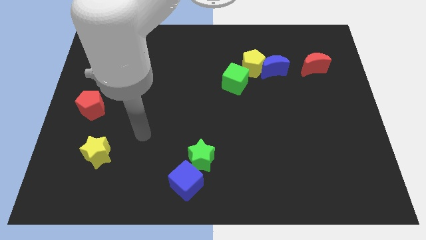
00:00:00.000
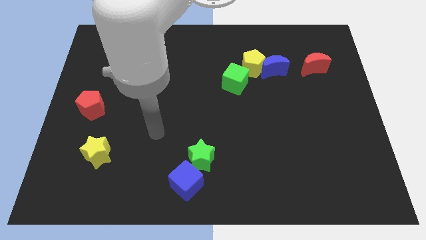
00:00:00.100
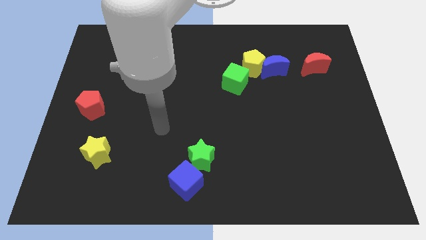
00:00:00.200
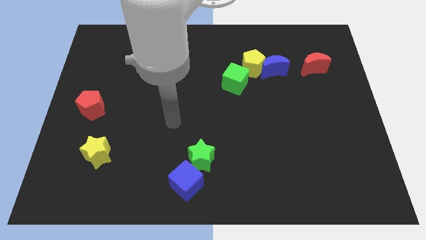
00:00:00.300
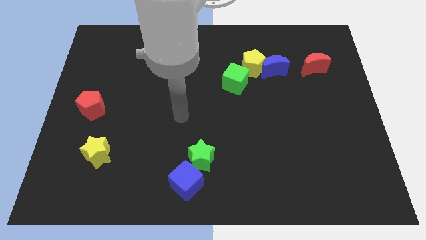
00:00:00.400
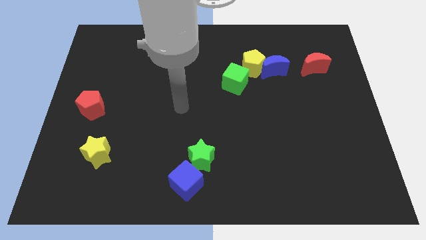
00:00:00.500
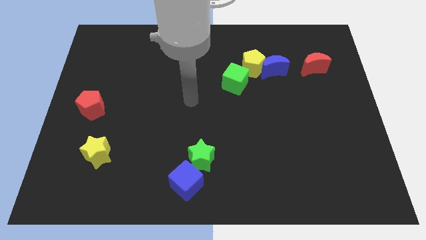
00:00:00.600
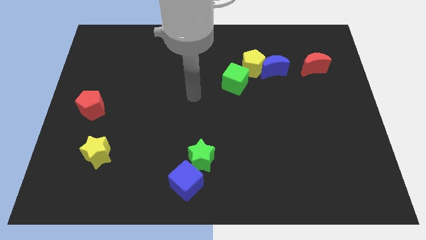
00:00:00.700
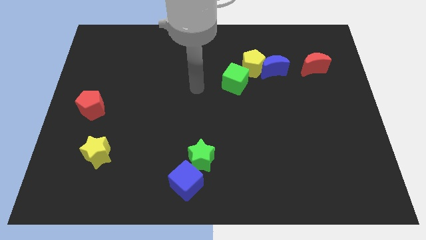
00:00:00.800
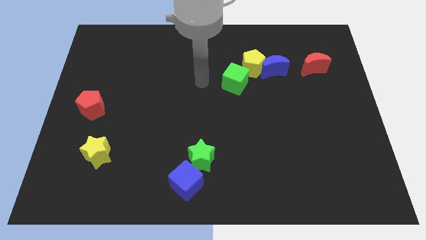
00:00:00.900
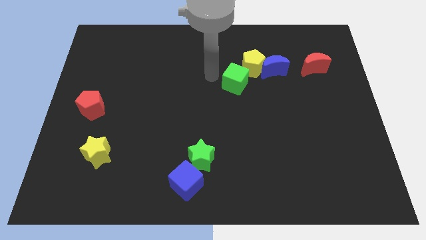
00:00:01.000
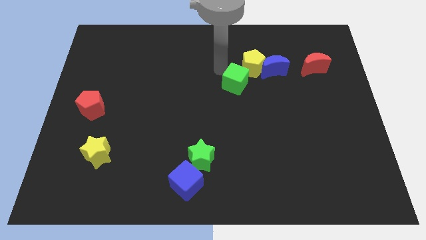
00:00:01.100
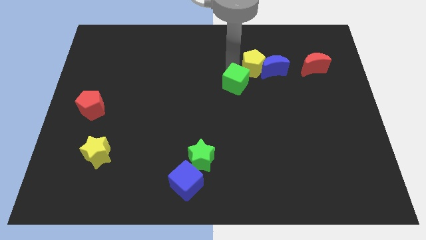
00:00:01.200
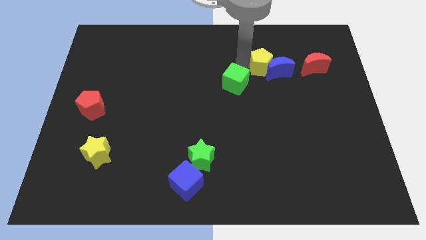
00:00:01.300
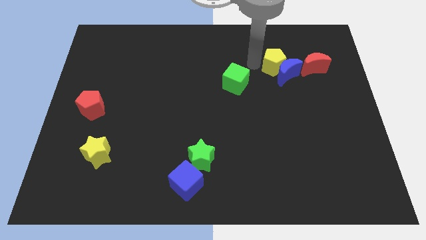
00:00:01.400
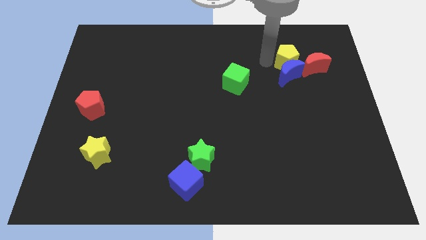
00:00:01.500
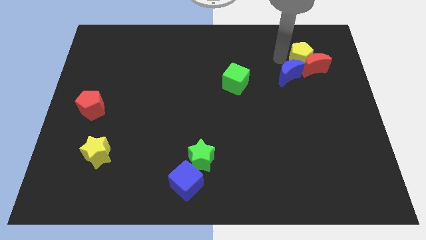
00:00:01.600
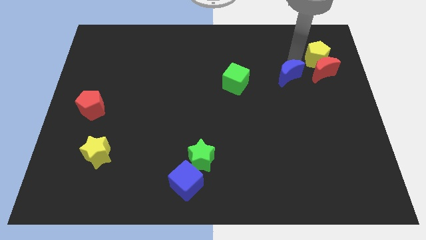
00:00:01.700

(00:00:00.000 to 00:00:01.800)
pull the blue moon apart from the yellow pentagon

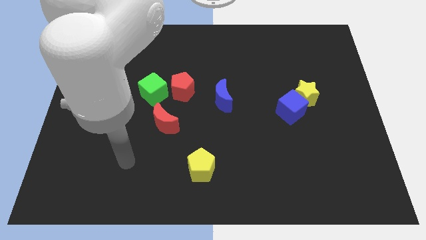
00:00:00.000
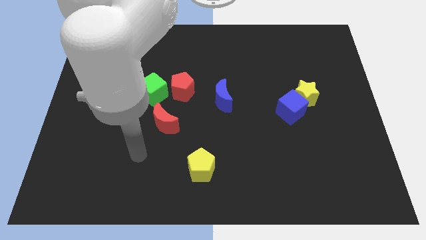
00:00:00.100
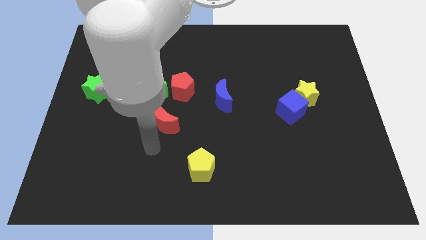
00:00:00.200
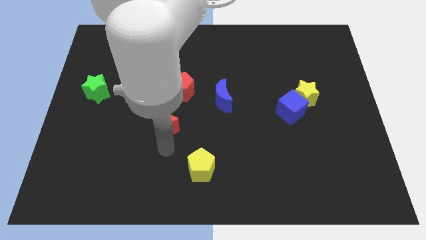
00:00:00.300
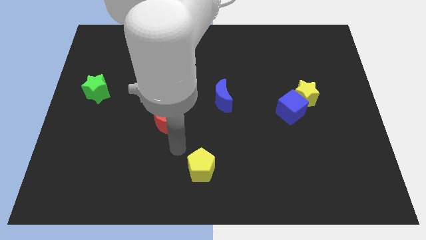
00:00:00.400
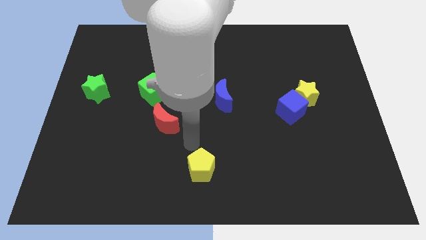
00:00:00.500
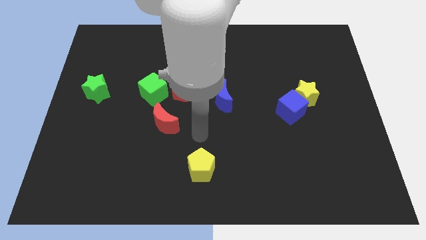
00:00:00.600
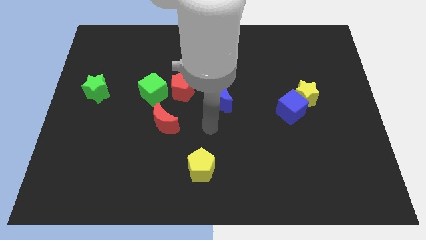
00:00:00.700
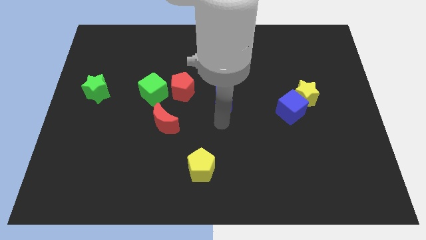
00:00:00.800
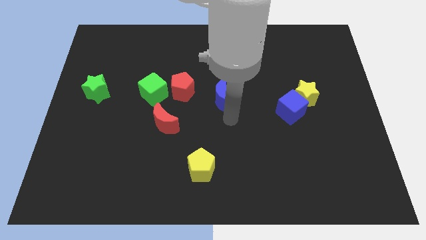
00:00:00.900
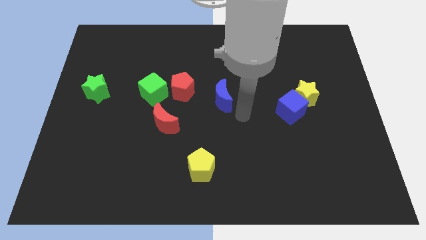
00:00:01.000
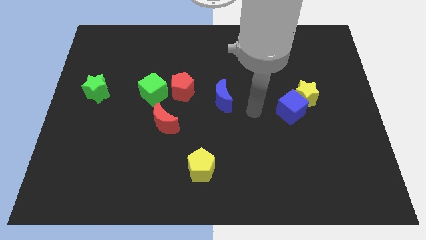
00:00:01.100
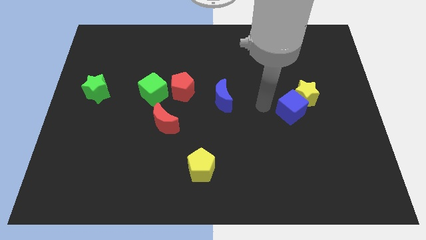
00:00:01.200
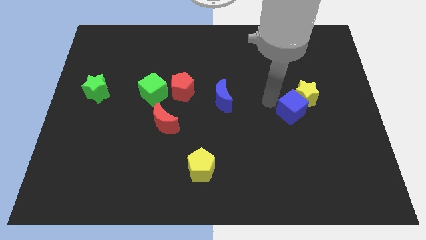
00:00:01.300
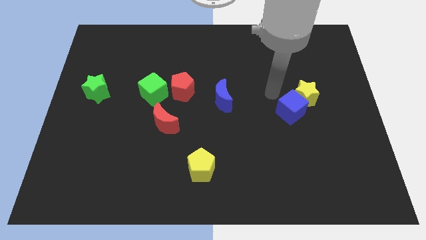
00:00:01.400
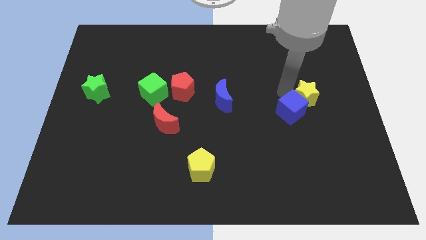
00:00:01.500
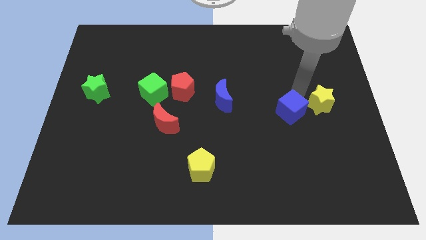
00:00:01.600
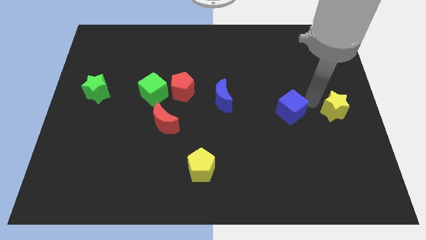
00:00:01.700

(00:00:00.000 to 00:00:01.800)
move the blue cube away from the yellow star

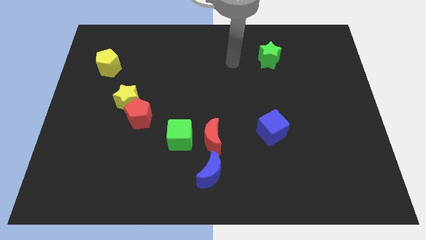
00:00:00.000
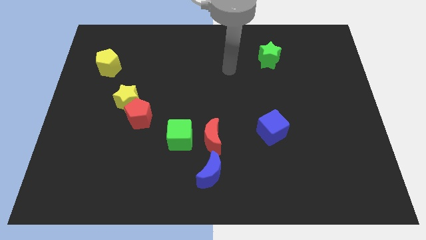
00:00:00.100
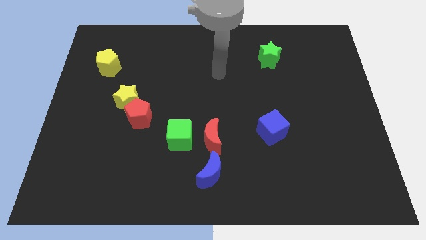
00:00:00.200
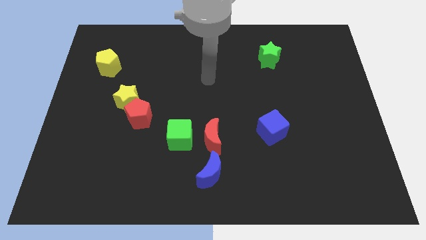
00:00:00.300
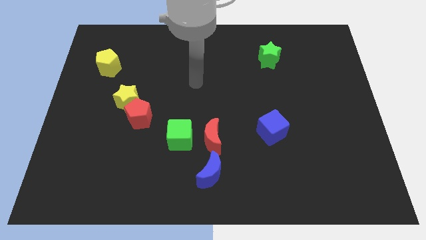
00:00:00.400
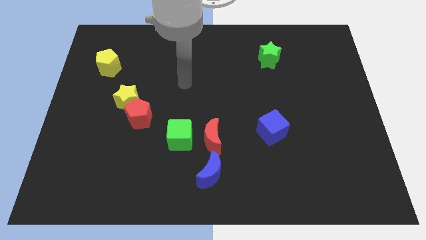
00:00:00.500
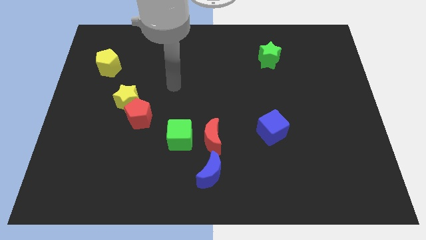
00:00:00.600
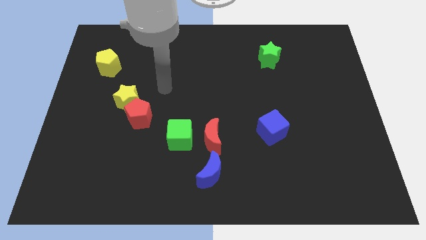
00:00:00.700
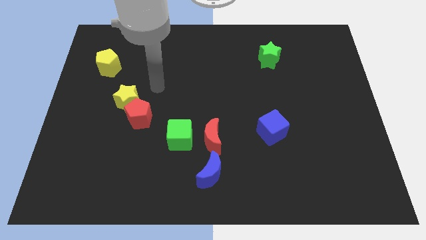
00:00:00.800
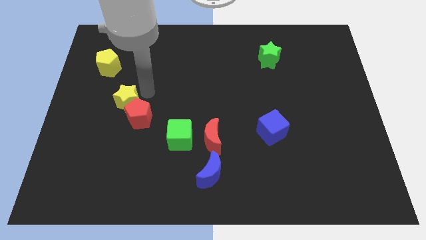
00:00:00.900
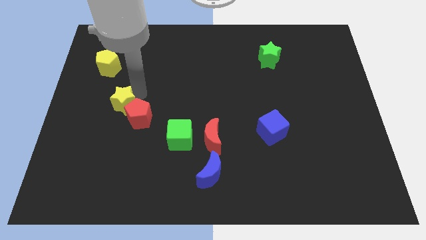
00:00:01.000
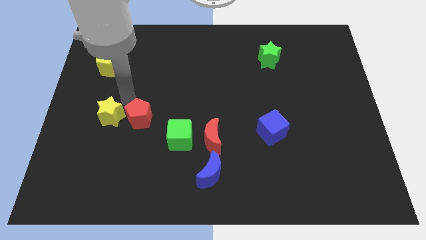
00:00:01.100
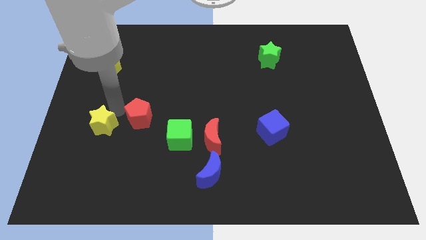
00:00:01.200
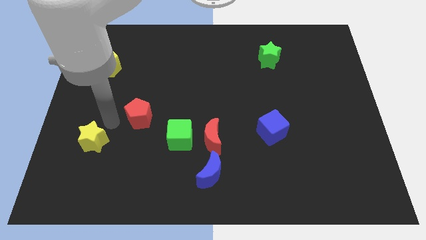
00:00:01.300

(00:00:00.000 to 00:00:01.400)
pull the red pentagon apart from the yellow star

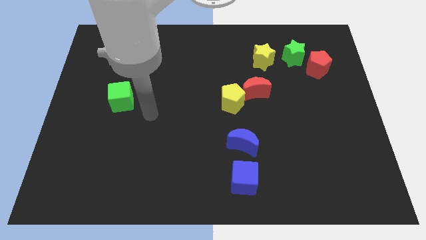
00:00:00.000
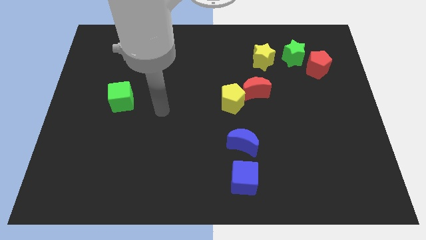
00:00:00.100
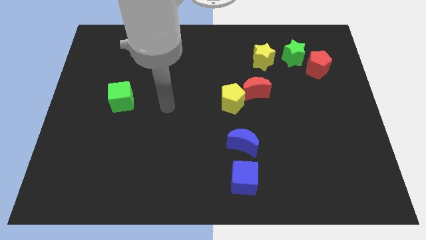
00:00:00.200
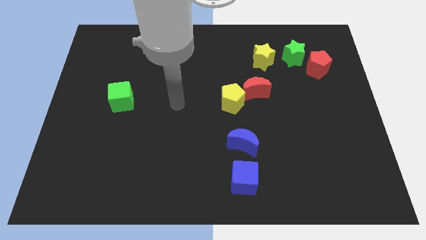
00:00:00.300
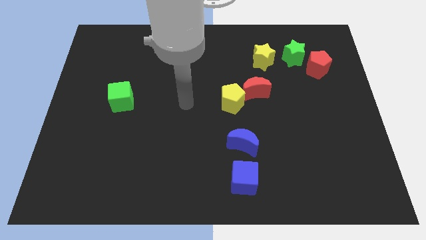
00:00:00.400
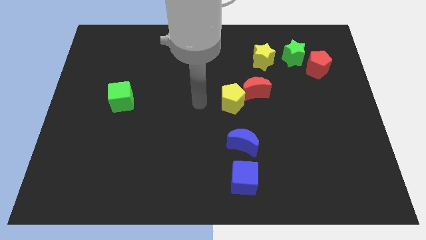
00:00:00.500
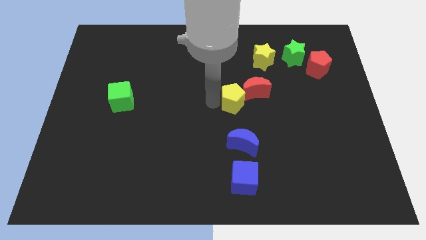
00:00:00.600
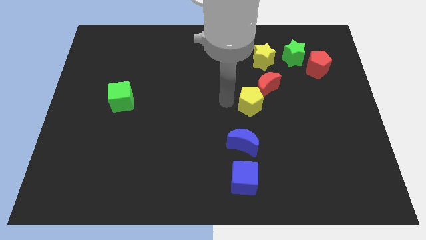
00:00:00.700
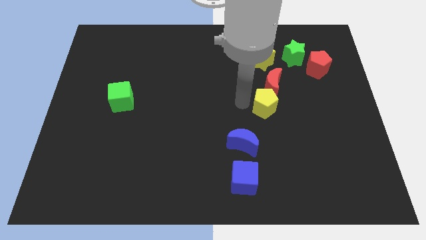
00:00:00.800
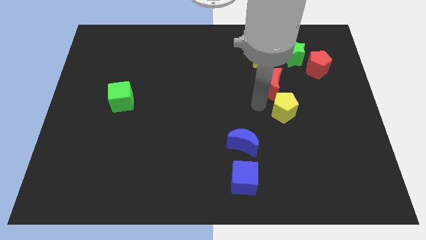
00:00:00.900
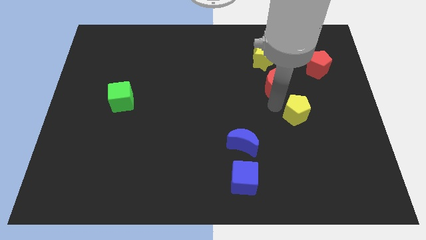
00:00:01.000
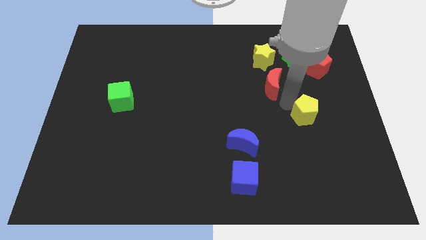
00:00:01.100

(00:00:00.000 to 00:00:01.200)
move the red moon away from the yellow pentagon

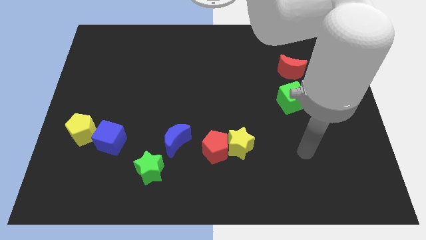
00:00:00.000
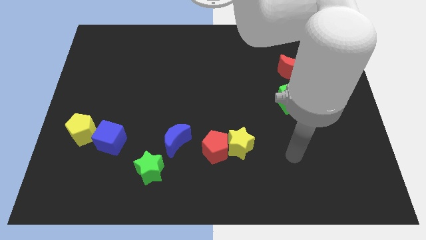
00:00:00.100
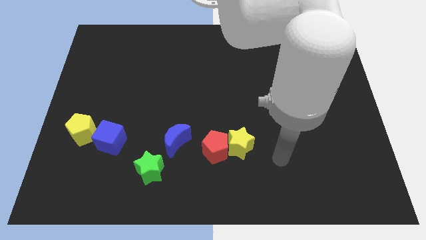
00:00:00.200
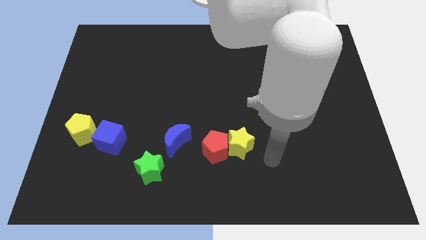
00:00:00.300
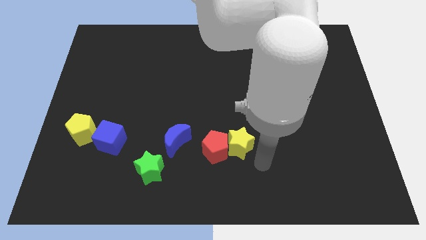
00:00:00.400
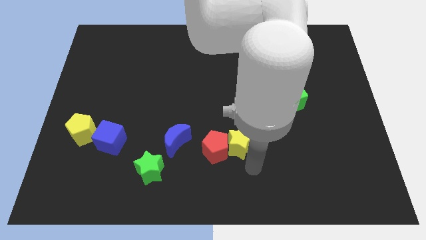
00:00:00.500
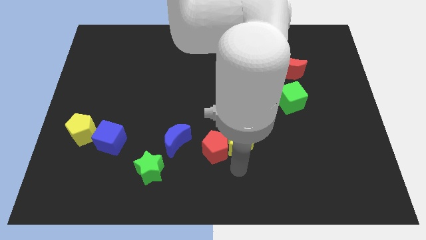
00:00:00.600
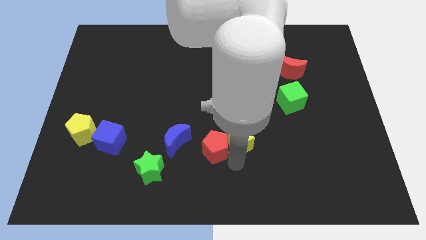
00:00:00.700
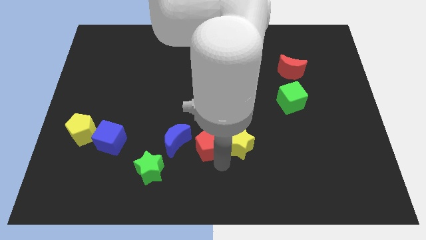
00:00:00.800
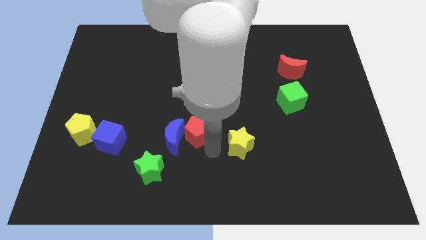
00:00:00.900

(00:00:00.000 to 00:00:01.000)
move the yellow star away from the red pentagon

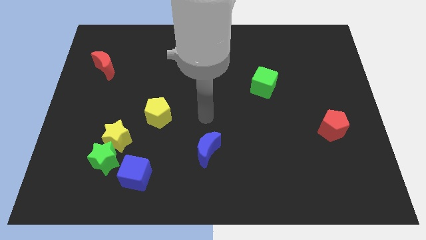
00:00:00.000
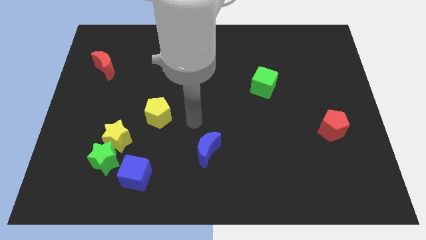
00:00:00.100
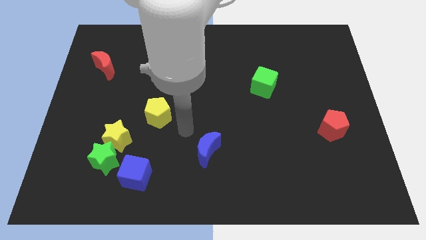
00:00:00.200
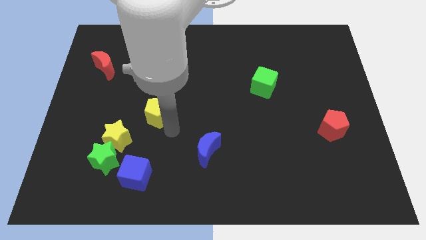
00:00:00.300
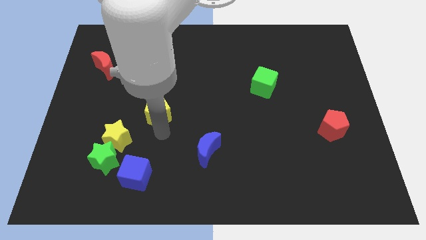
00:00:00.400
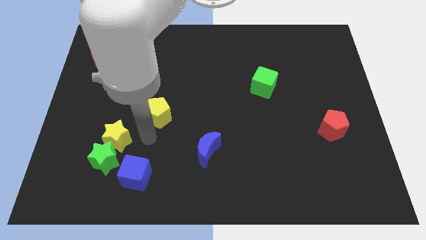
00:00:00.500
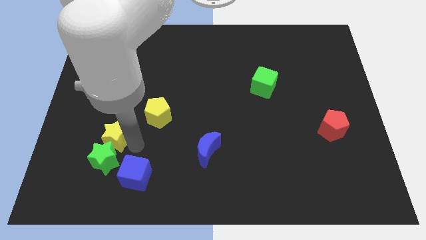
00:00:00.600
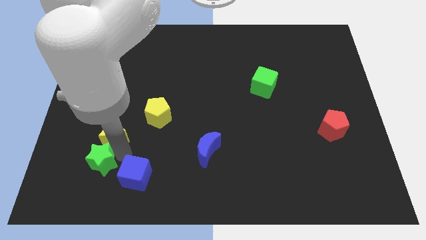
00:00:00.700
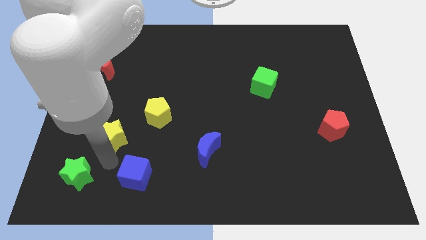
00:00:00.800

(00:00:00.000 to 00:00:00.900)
pull the yellow star apart from the green star

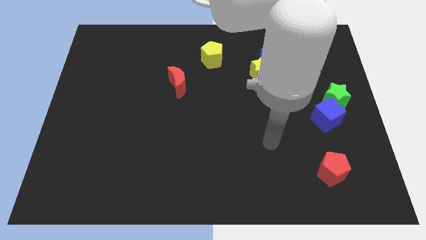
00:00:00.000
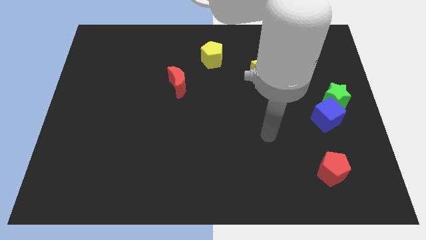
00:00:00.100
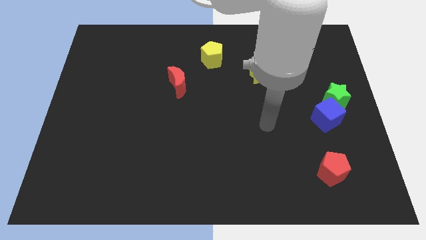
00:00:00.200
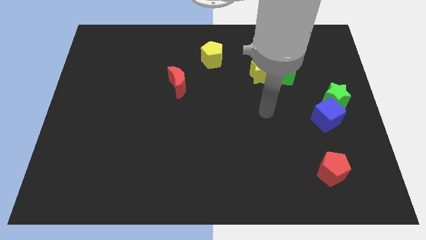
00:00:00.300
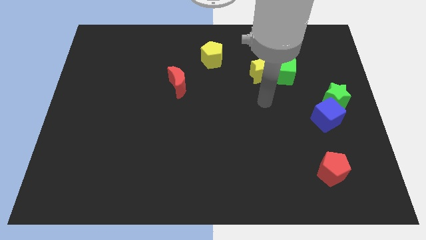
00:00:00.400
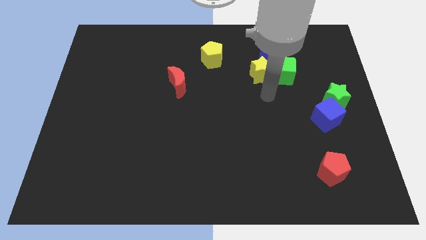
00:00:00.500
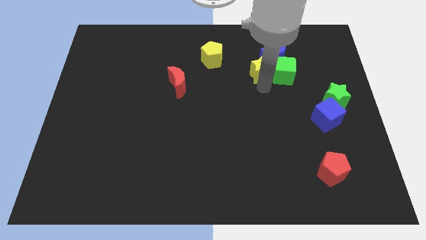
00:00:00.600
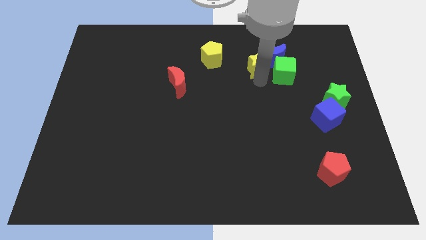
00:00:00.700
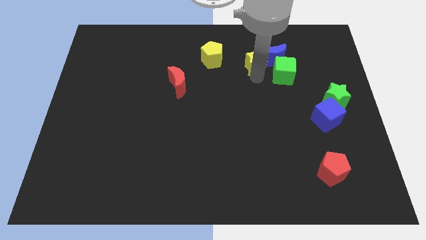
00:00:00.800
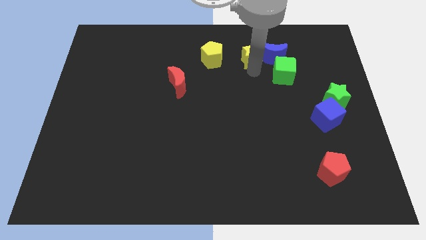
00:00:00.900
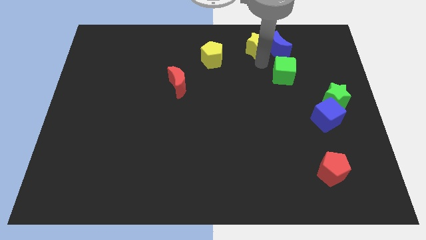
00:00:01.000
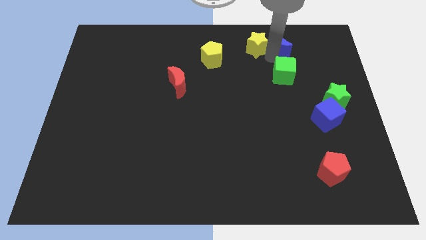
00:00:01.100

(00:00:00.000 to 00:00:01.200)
separate the green cube from the blue moon and yellow star
